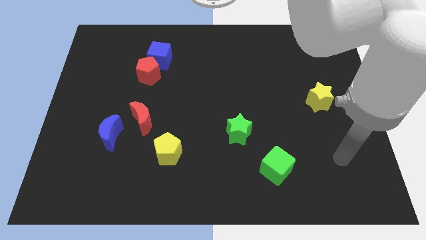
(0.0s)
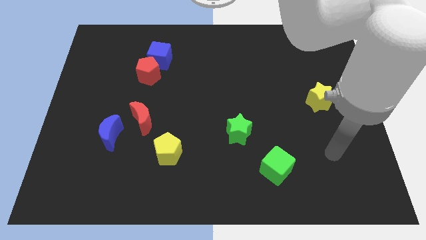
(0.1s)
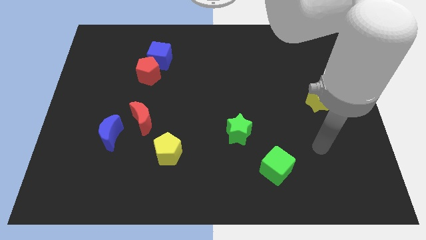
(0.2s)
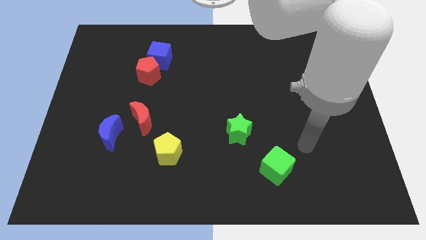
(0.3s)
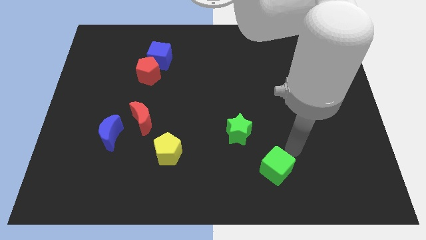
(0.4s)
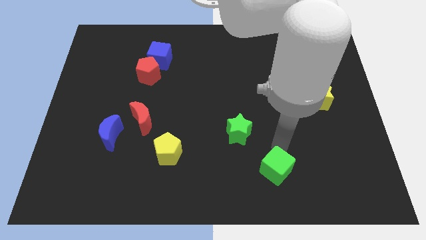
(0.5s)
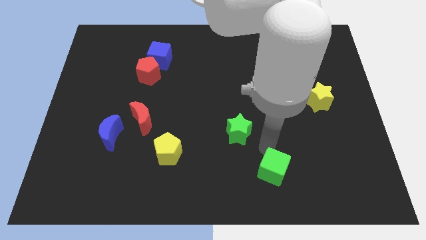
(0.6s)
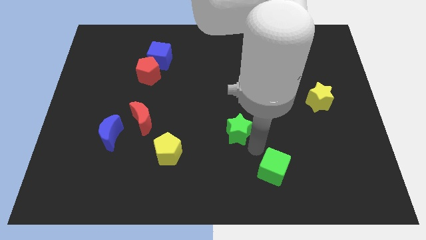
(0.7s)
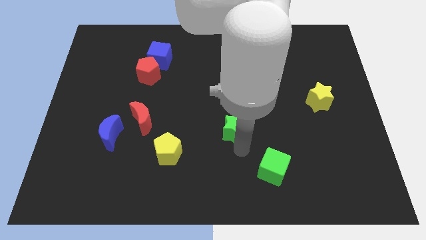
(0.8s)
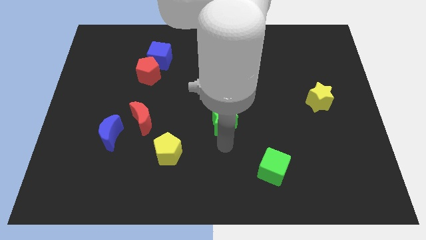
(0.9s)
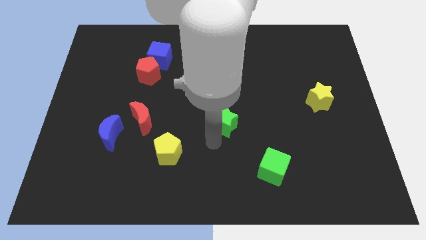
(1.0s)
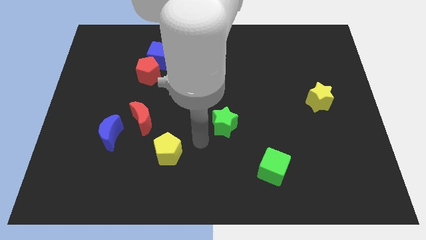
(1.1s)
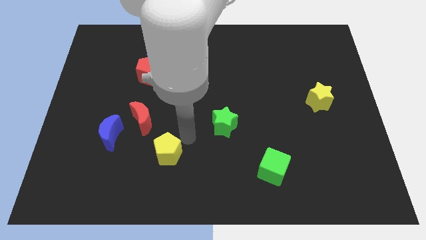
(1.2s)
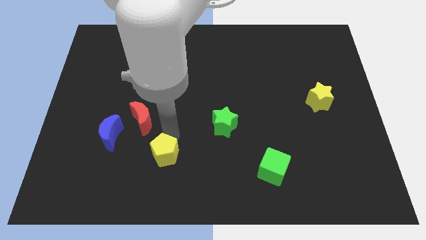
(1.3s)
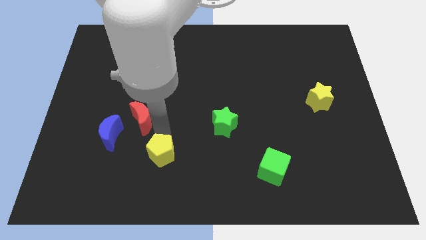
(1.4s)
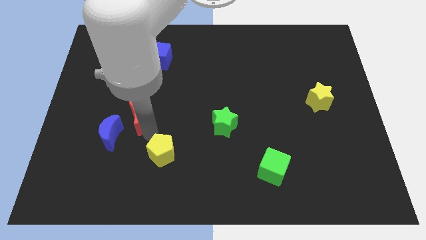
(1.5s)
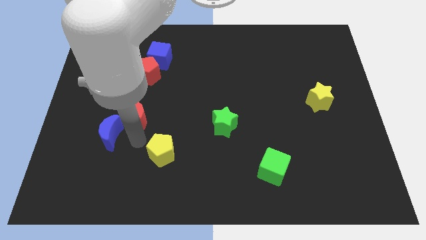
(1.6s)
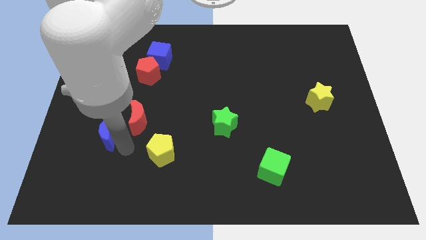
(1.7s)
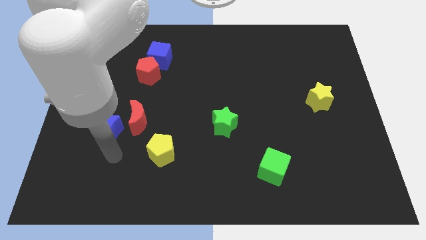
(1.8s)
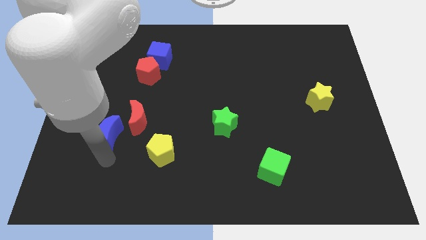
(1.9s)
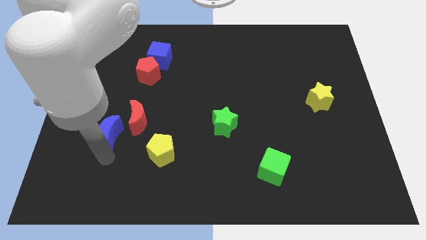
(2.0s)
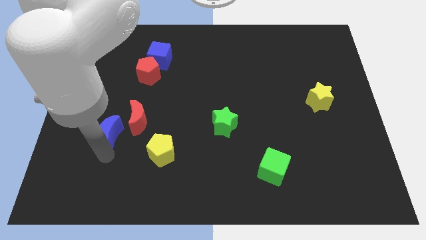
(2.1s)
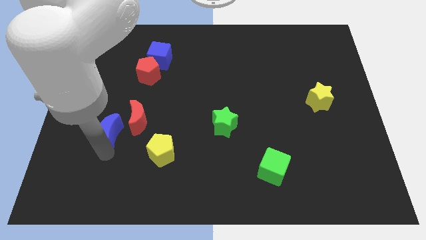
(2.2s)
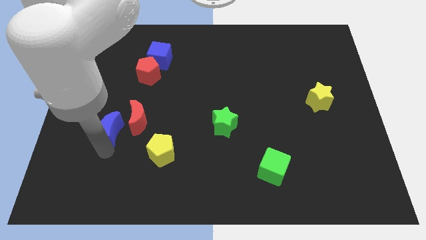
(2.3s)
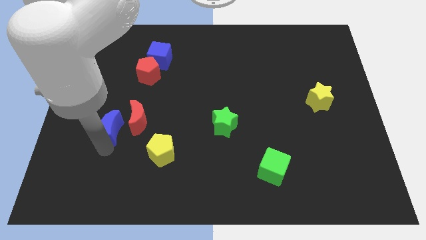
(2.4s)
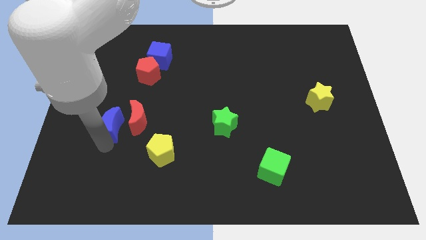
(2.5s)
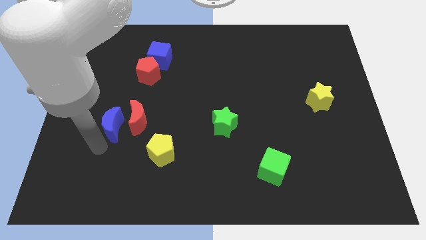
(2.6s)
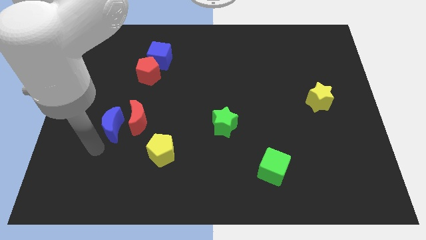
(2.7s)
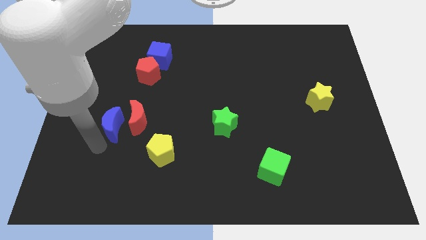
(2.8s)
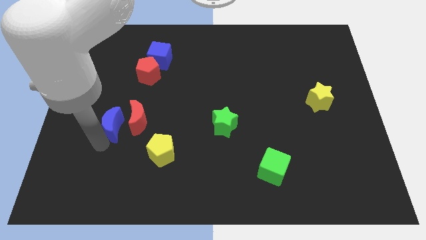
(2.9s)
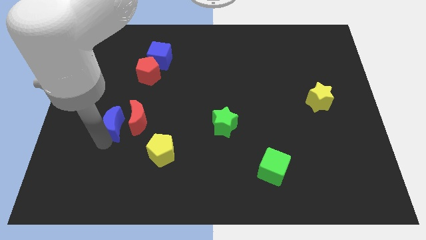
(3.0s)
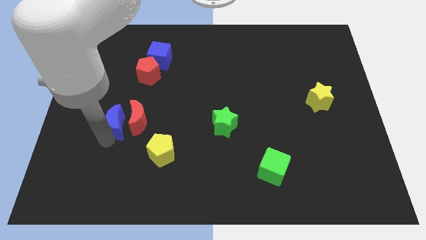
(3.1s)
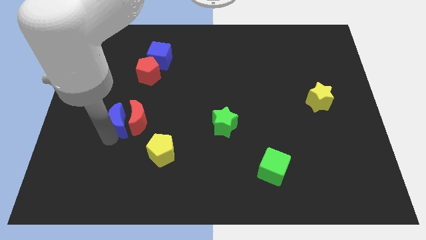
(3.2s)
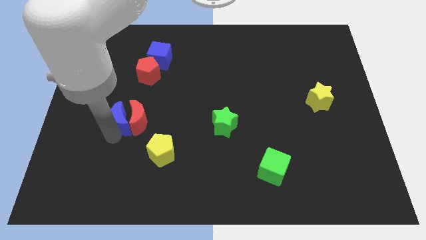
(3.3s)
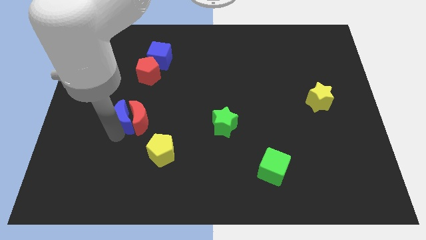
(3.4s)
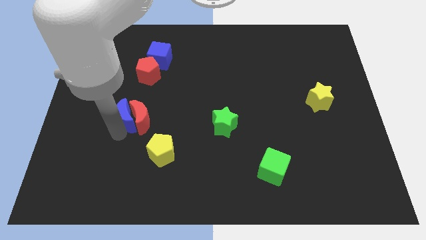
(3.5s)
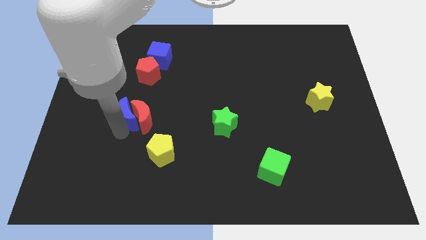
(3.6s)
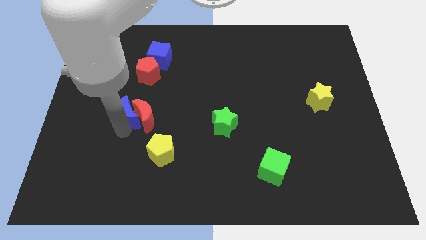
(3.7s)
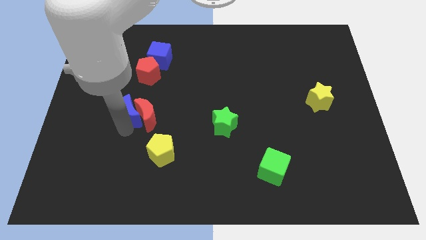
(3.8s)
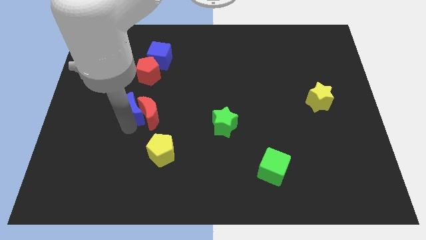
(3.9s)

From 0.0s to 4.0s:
slide the blue moon somewhat upwards and right diagonally

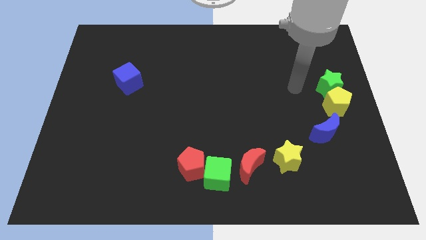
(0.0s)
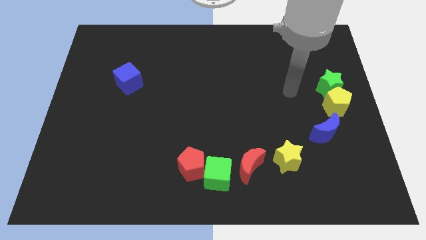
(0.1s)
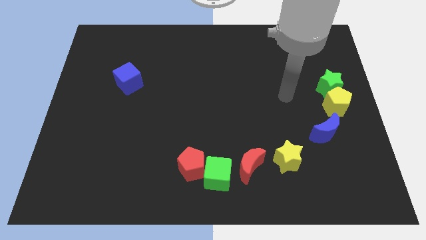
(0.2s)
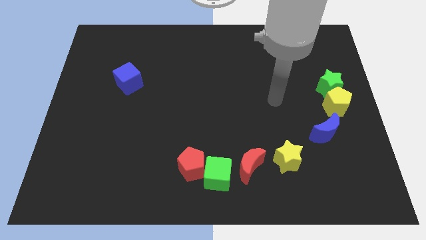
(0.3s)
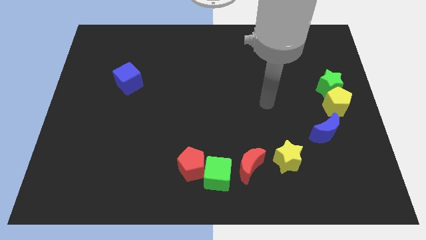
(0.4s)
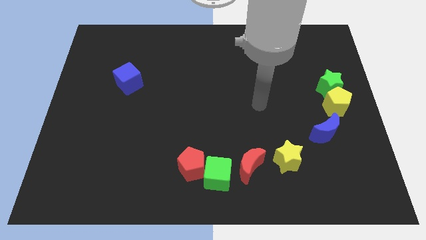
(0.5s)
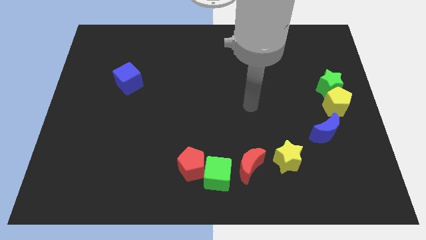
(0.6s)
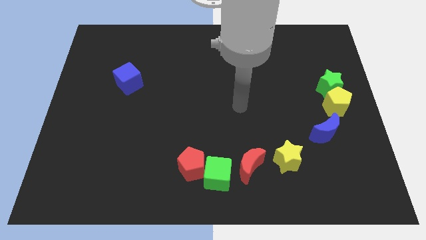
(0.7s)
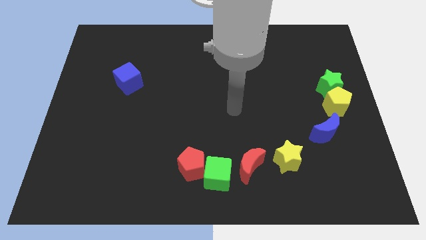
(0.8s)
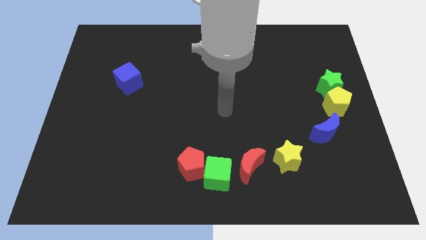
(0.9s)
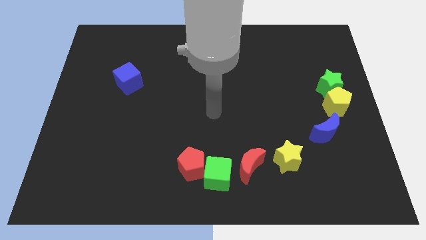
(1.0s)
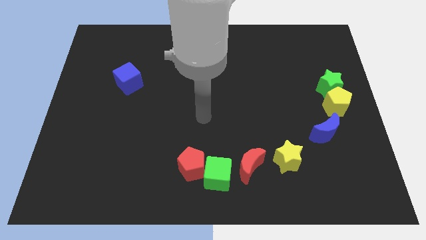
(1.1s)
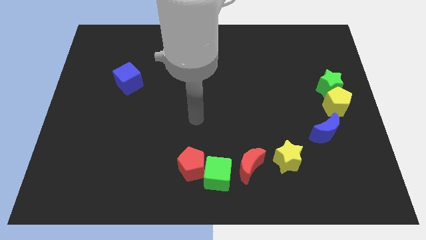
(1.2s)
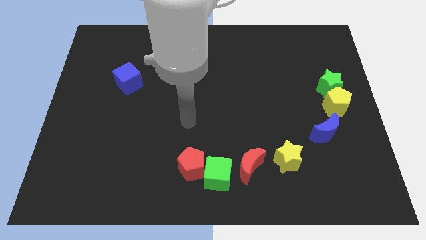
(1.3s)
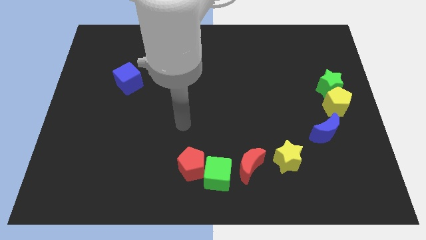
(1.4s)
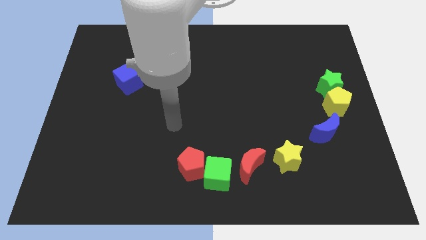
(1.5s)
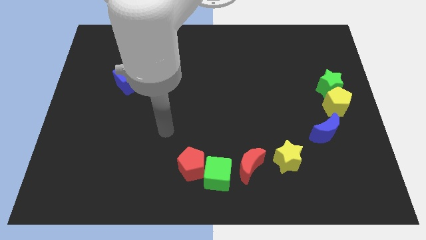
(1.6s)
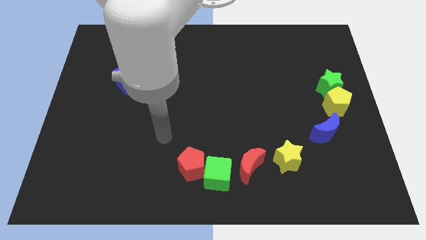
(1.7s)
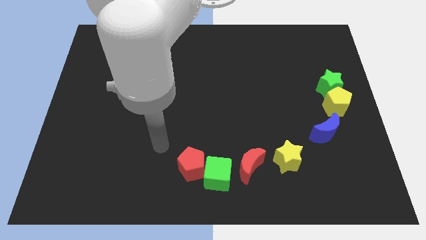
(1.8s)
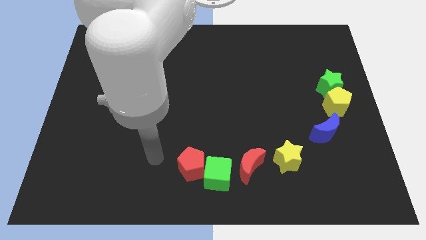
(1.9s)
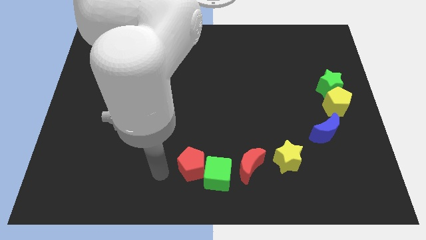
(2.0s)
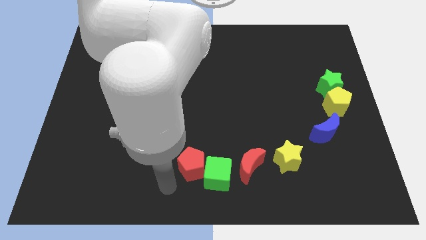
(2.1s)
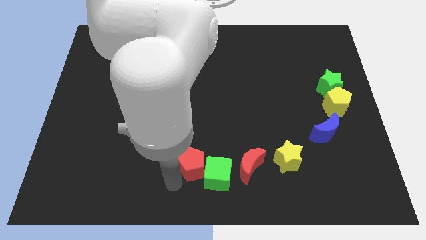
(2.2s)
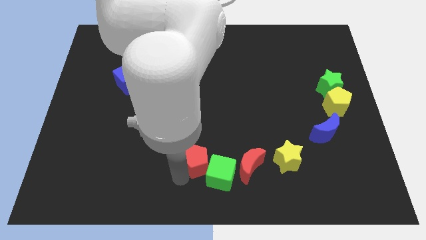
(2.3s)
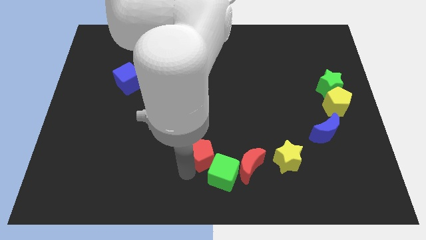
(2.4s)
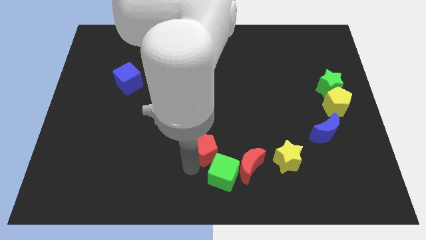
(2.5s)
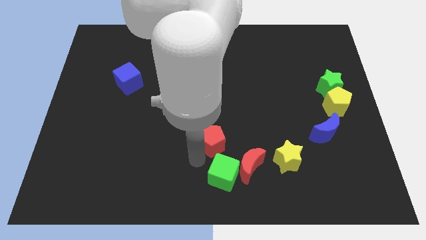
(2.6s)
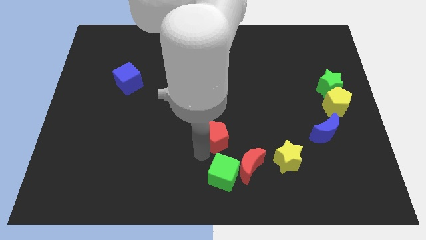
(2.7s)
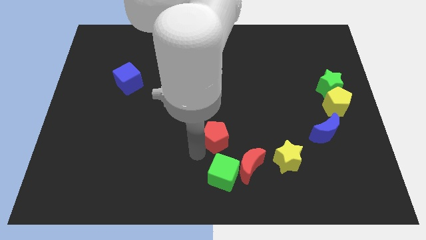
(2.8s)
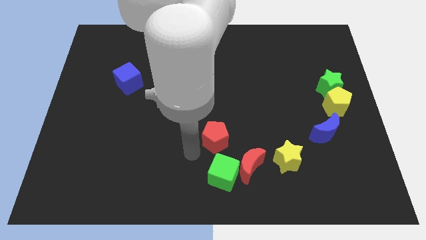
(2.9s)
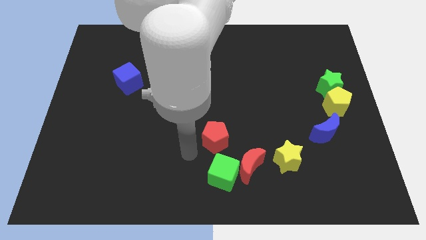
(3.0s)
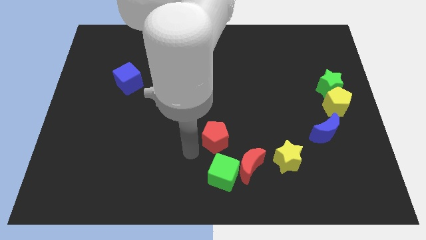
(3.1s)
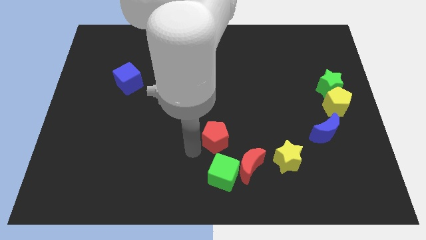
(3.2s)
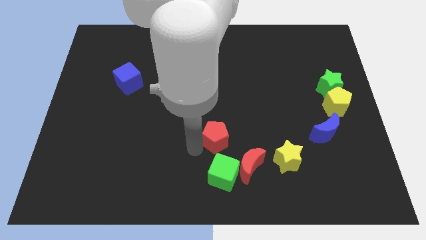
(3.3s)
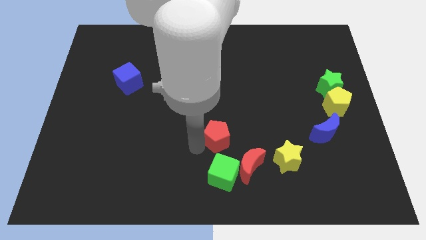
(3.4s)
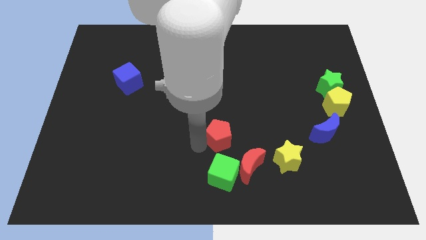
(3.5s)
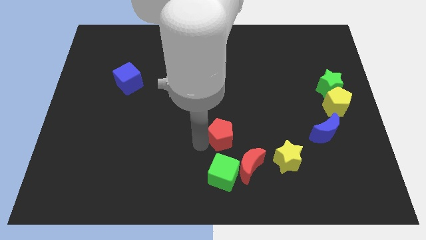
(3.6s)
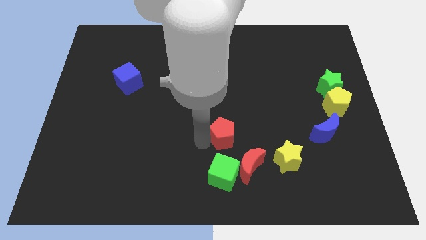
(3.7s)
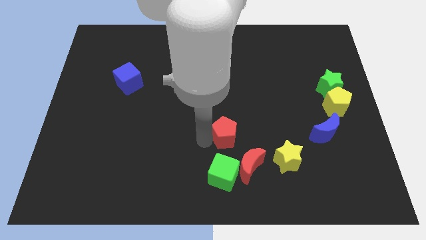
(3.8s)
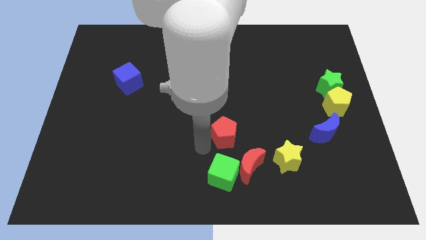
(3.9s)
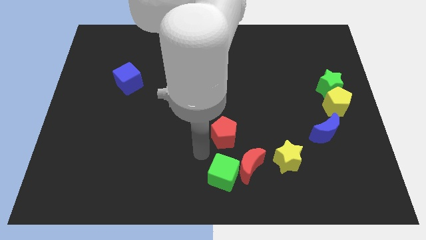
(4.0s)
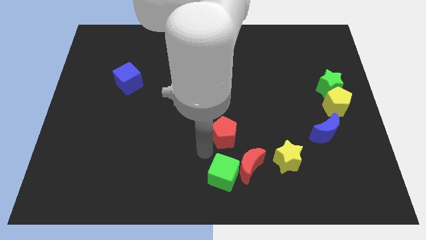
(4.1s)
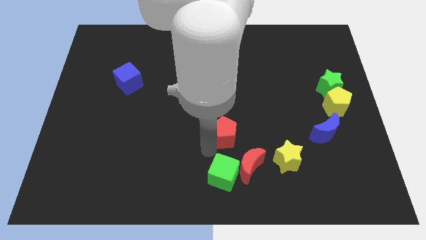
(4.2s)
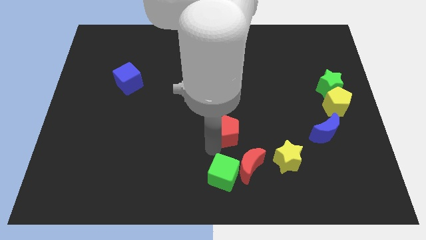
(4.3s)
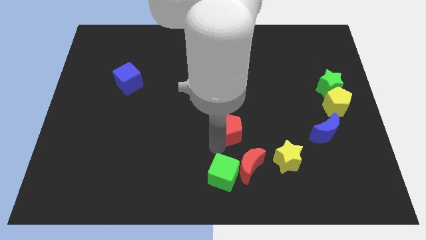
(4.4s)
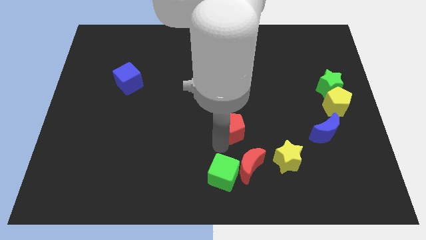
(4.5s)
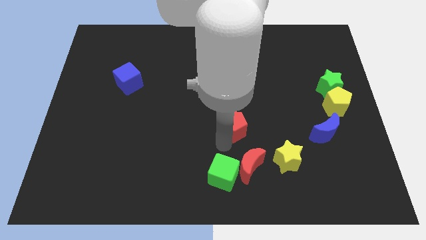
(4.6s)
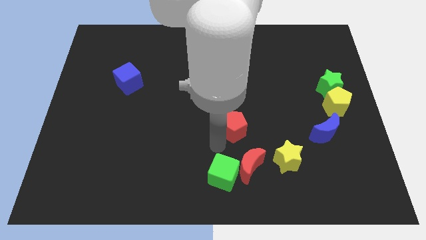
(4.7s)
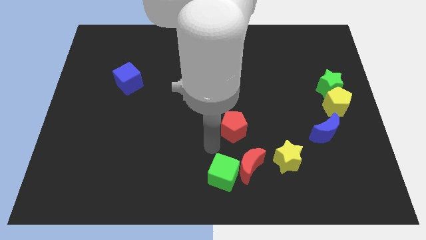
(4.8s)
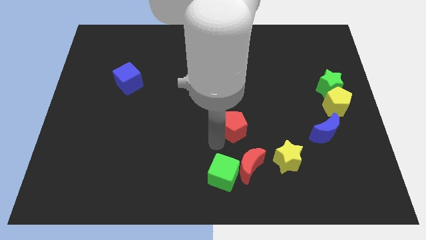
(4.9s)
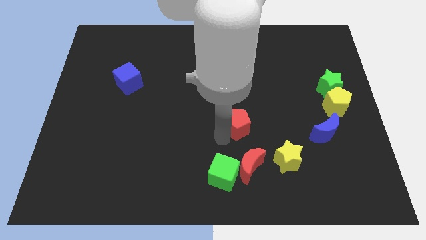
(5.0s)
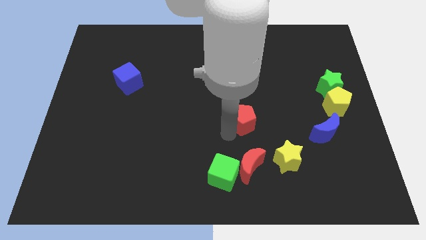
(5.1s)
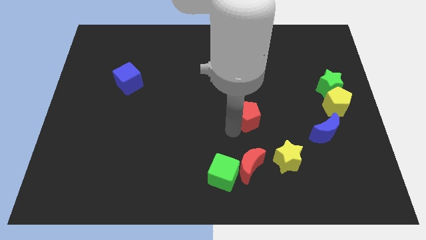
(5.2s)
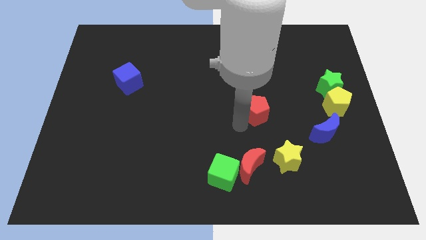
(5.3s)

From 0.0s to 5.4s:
move the red pentagon upwards and right diagonally
